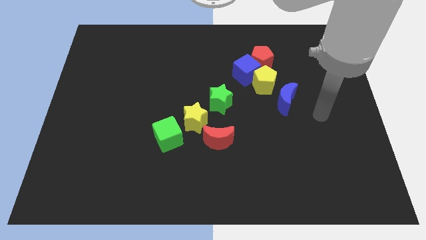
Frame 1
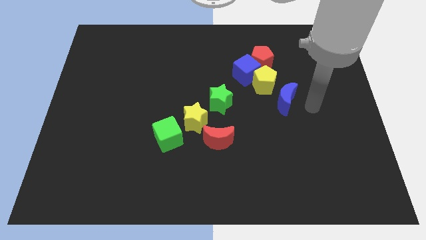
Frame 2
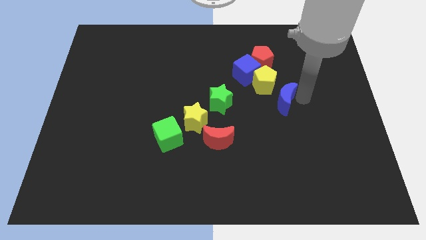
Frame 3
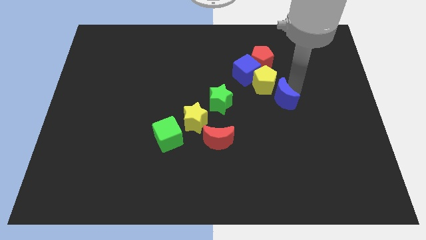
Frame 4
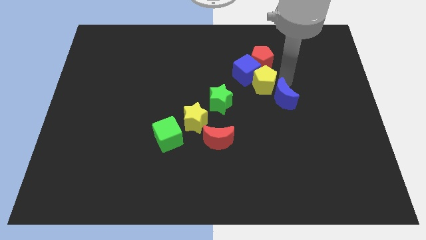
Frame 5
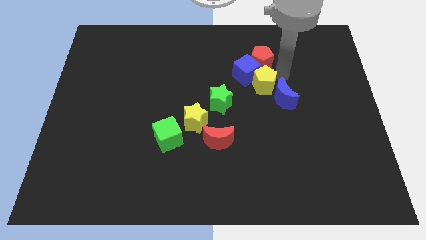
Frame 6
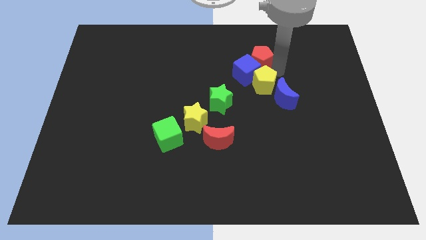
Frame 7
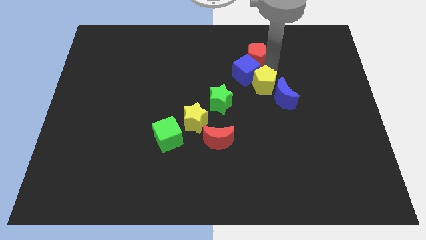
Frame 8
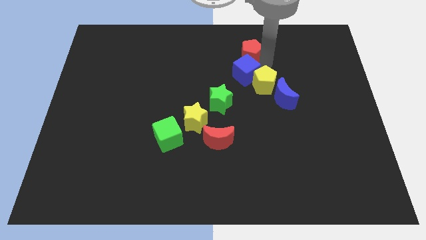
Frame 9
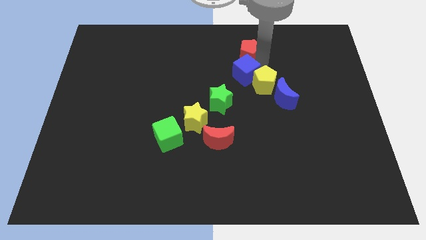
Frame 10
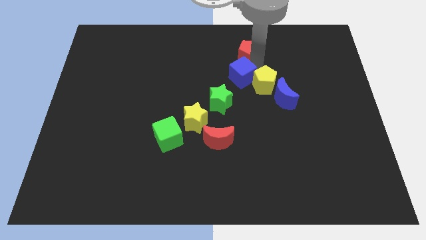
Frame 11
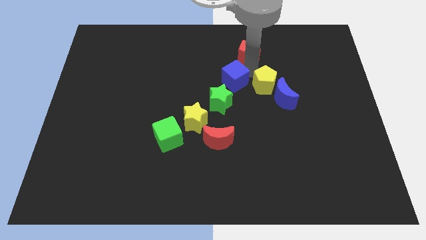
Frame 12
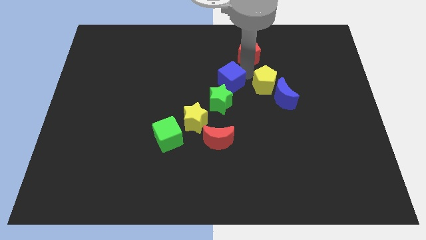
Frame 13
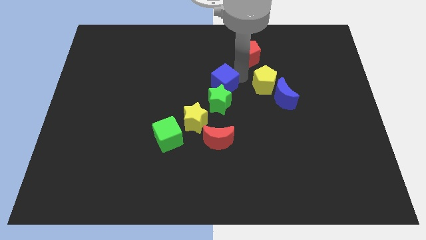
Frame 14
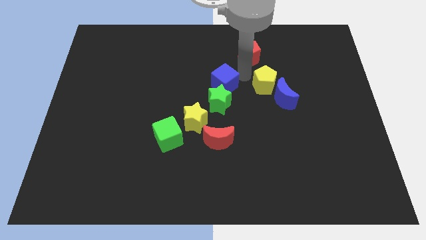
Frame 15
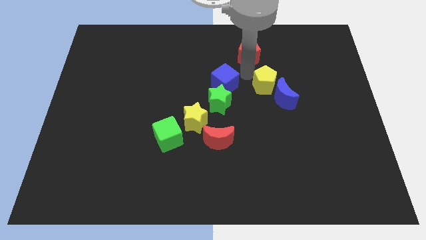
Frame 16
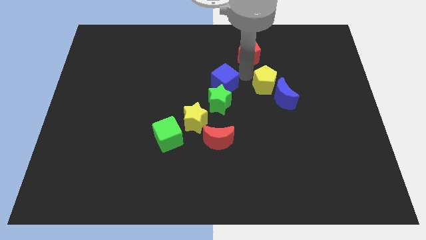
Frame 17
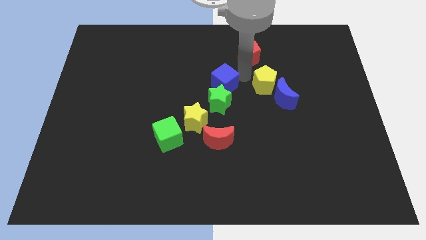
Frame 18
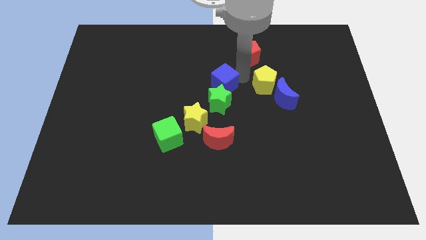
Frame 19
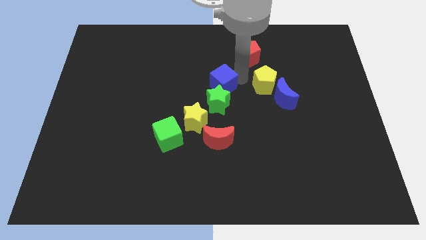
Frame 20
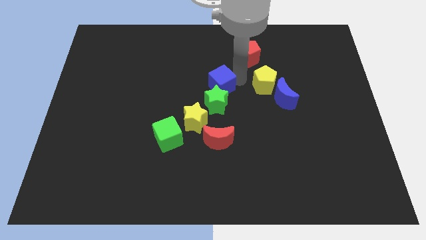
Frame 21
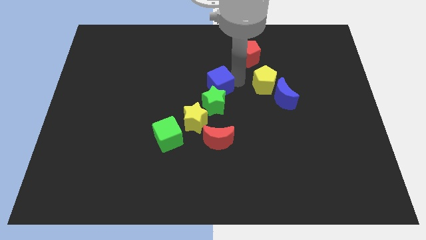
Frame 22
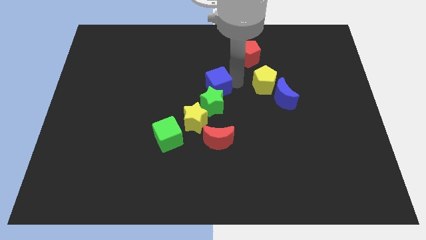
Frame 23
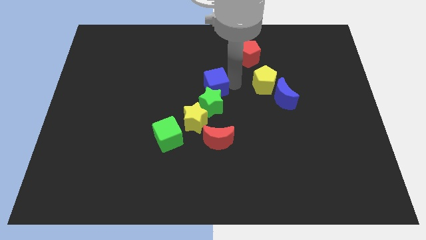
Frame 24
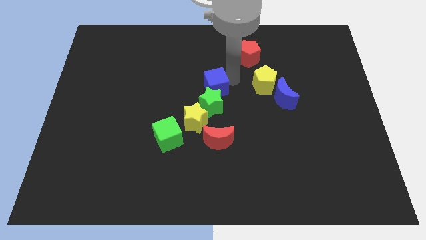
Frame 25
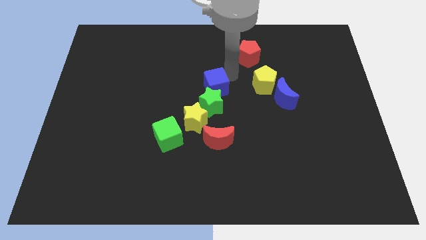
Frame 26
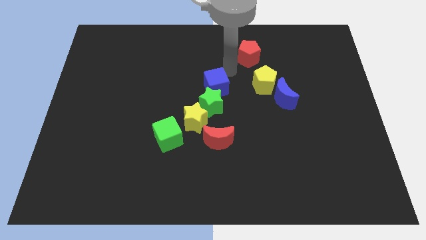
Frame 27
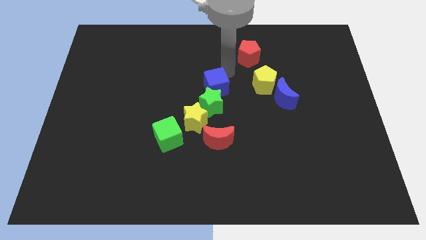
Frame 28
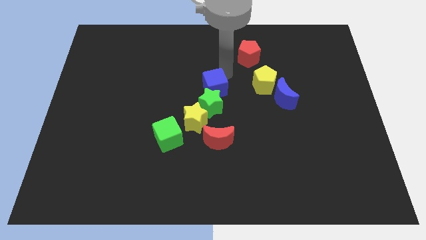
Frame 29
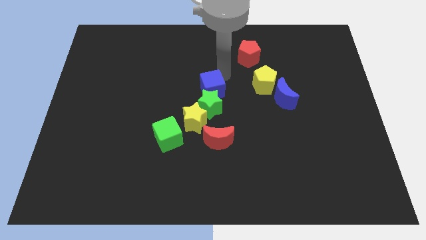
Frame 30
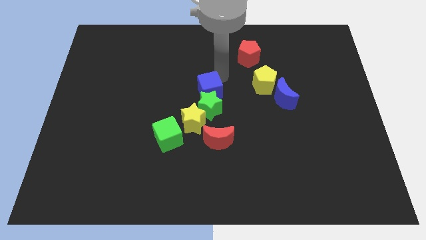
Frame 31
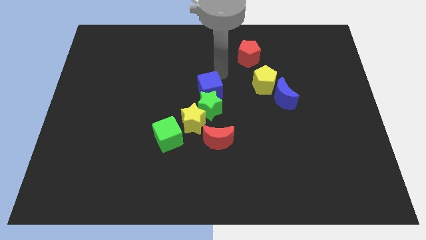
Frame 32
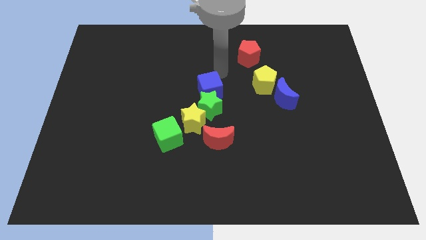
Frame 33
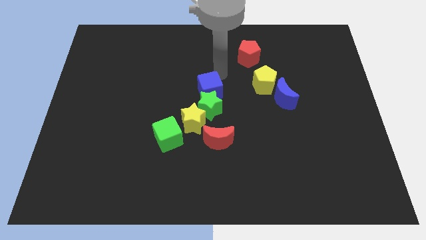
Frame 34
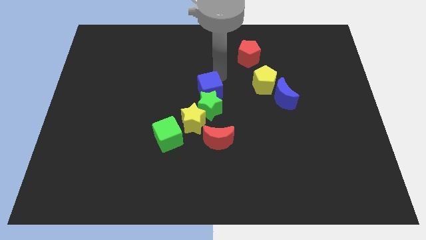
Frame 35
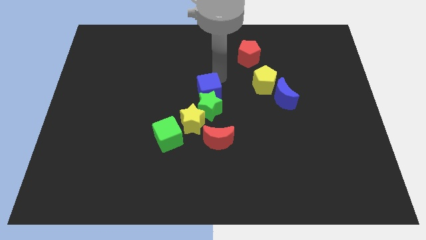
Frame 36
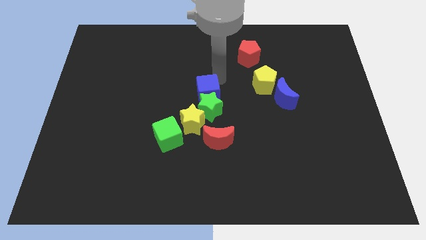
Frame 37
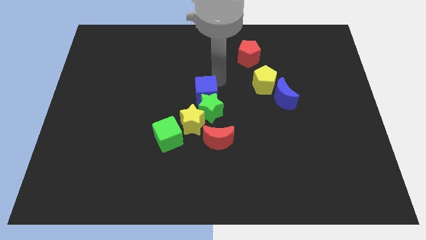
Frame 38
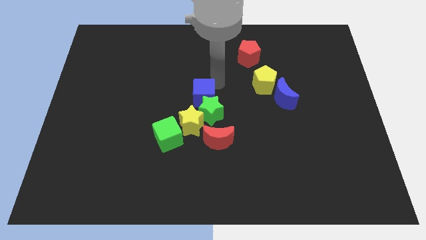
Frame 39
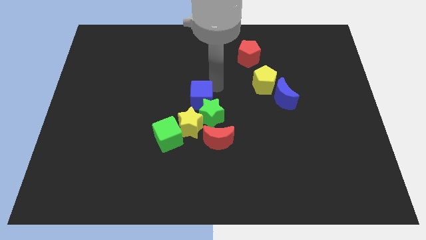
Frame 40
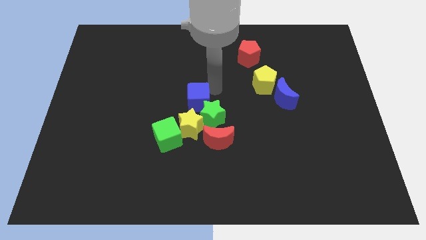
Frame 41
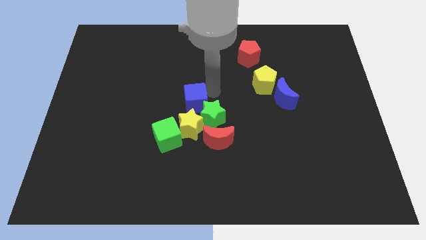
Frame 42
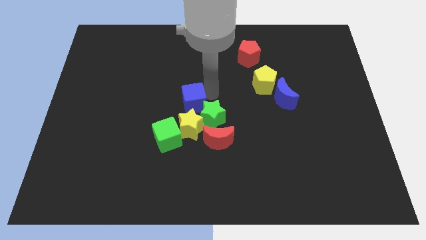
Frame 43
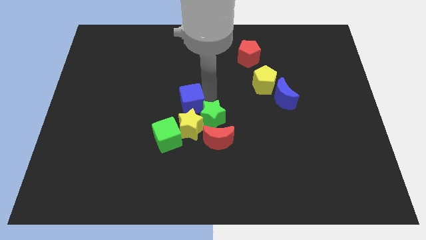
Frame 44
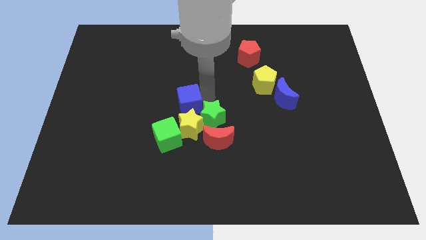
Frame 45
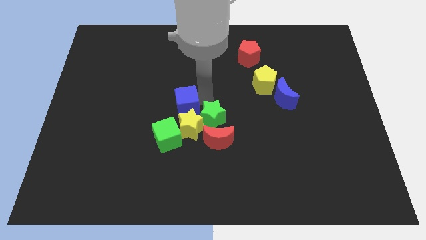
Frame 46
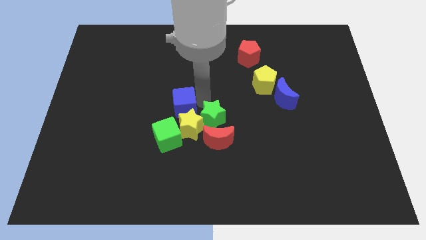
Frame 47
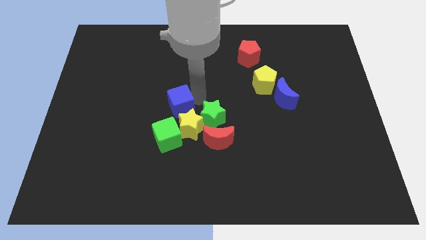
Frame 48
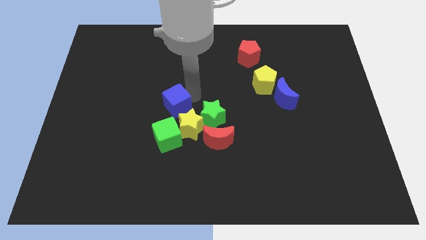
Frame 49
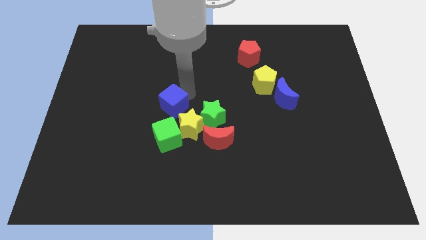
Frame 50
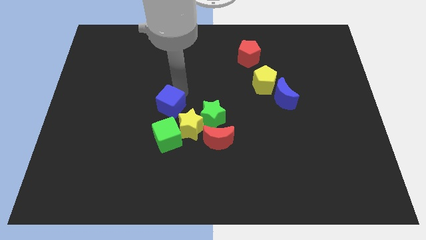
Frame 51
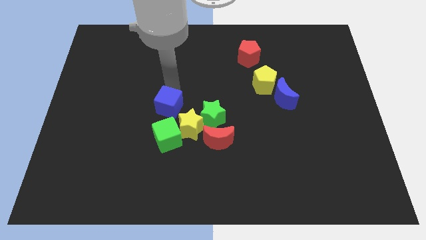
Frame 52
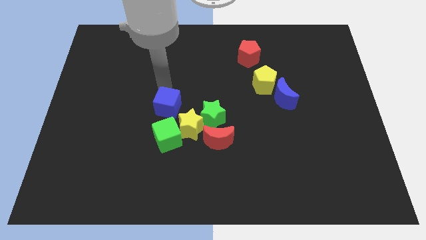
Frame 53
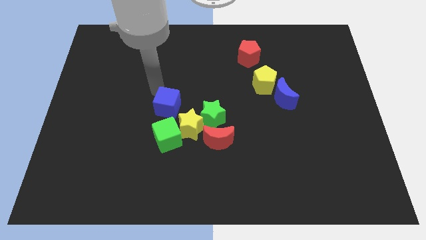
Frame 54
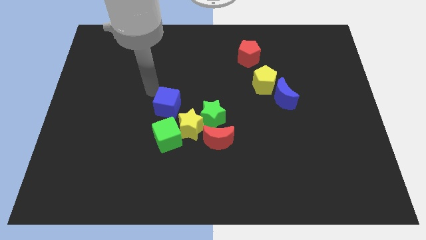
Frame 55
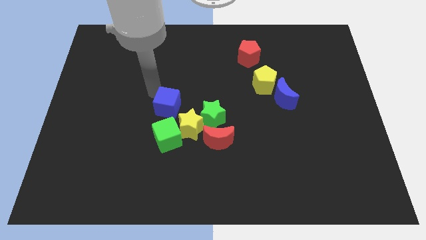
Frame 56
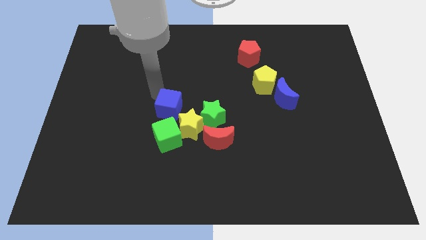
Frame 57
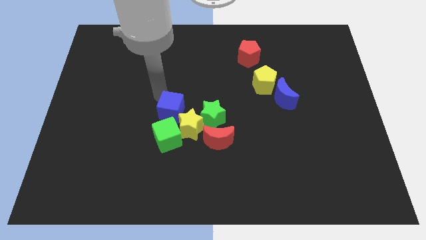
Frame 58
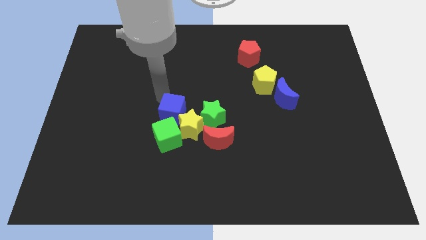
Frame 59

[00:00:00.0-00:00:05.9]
push the blue cube towards the yellow star

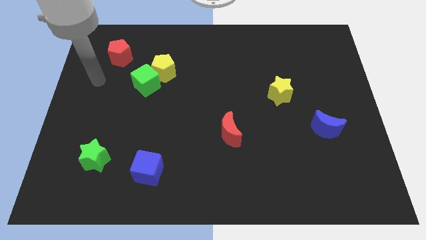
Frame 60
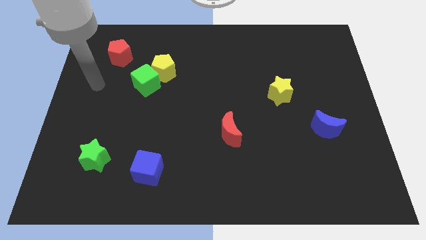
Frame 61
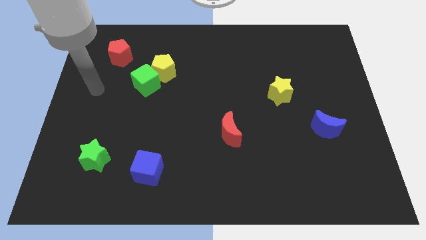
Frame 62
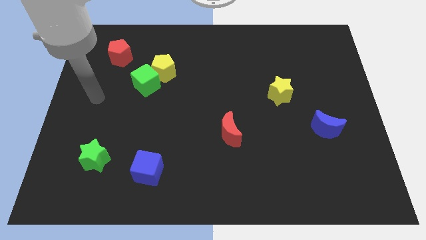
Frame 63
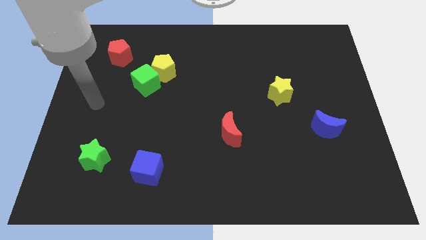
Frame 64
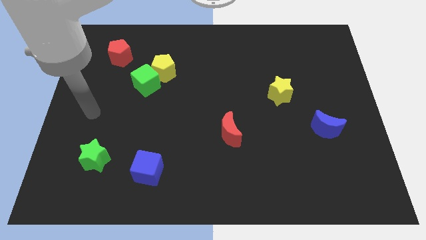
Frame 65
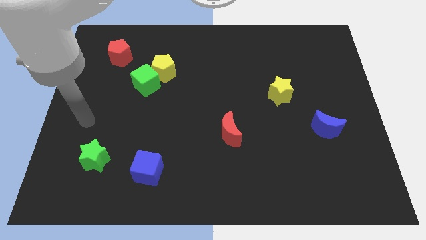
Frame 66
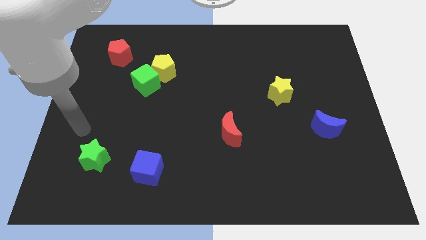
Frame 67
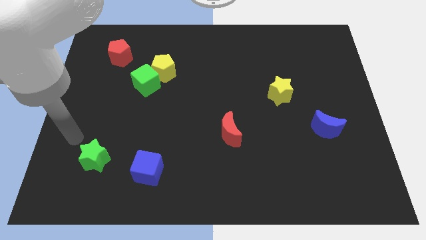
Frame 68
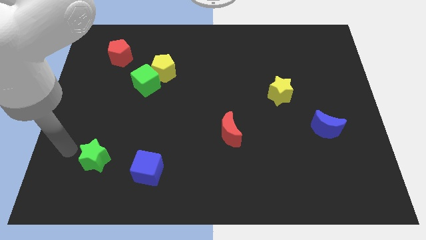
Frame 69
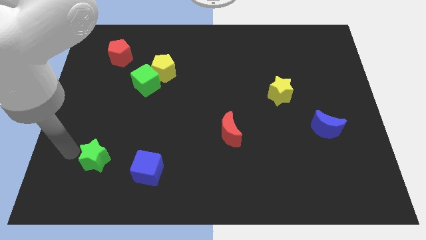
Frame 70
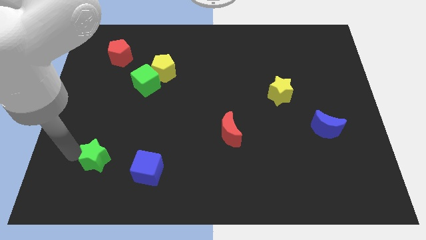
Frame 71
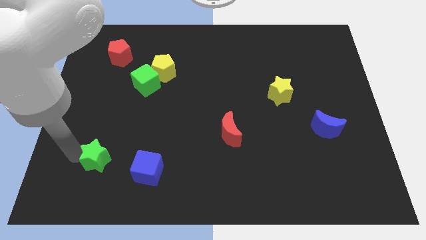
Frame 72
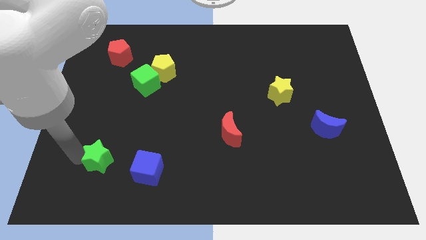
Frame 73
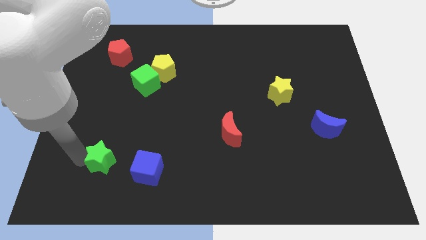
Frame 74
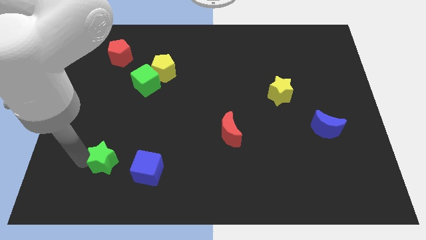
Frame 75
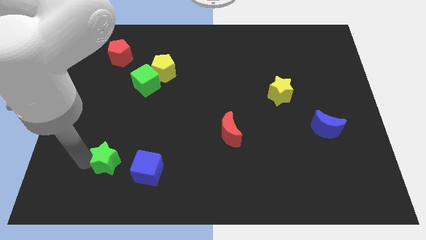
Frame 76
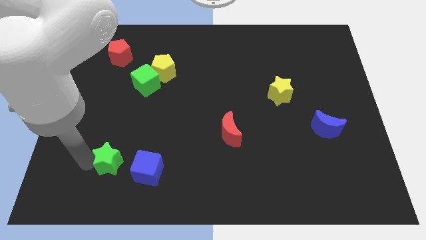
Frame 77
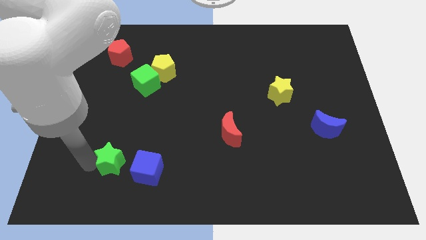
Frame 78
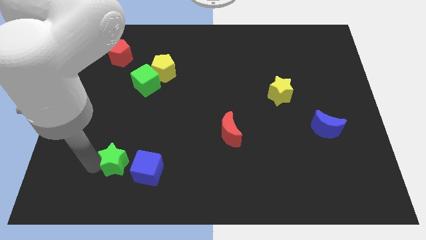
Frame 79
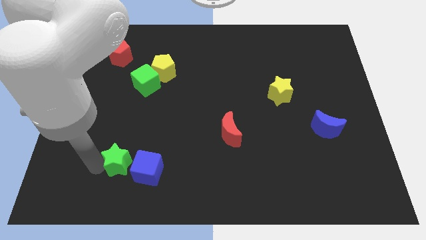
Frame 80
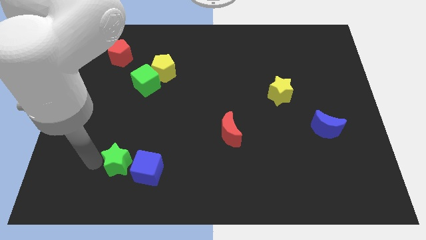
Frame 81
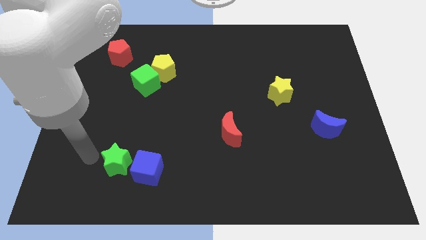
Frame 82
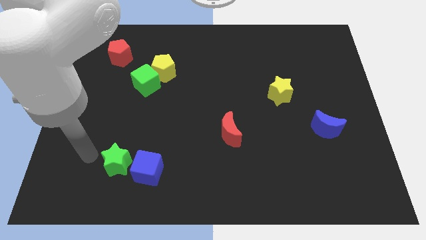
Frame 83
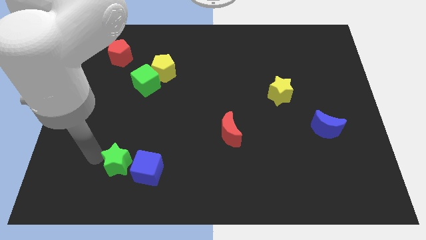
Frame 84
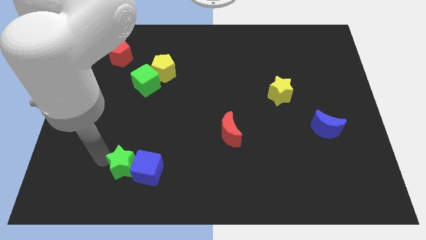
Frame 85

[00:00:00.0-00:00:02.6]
put the green star next to the blue cube
